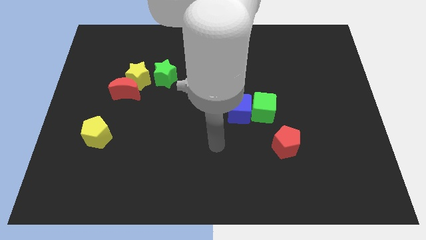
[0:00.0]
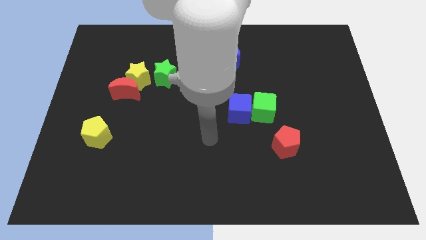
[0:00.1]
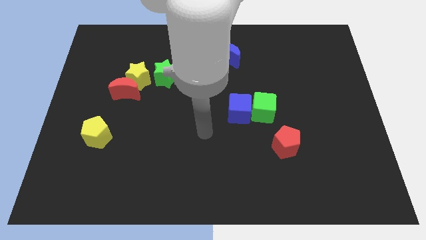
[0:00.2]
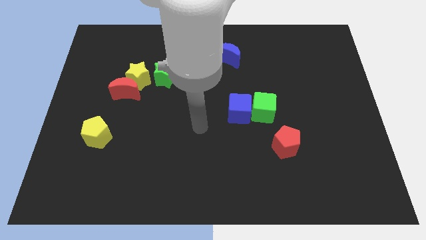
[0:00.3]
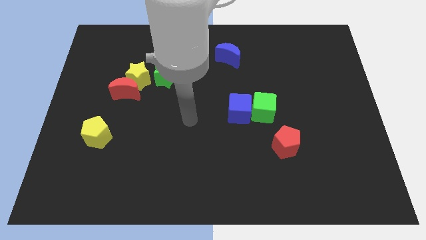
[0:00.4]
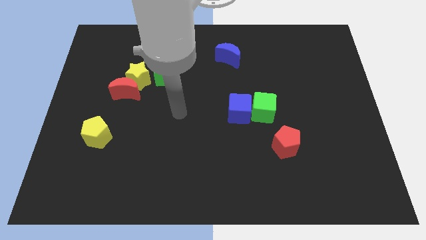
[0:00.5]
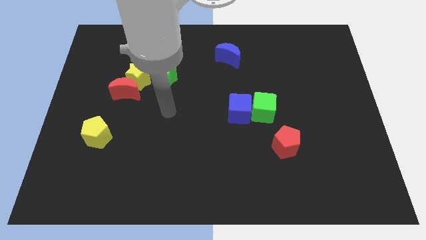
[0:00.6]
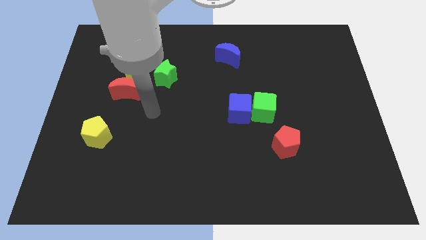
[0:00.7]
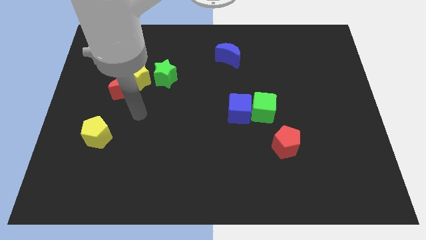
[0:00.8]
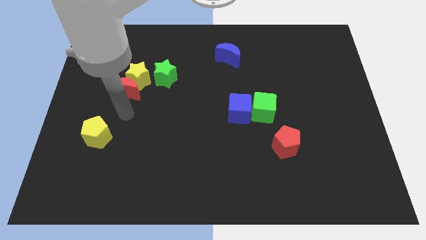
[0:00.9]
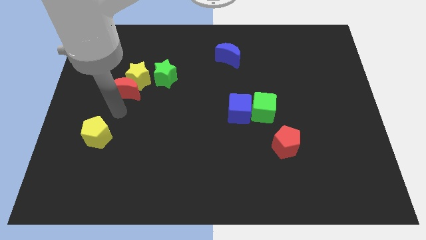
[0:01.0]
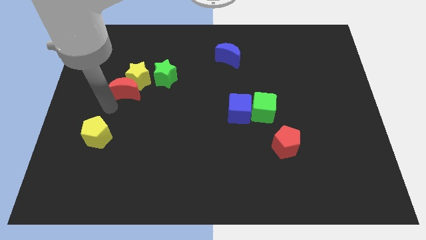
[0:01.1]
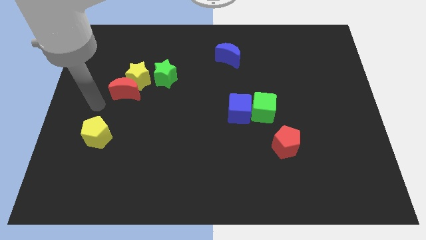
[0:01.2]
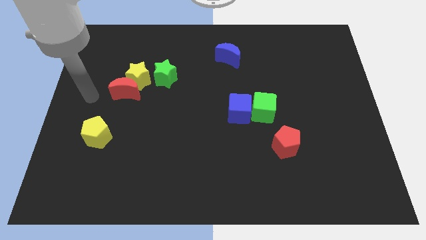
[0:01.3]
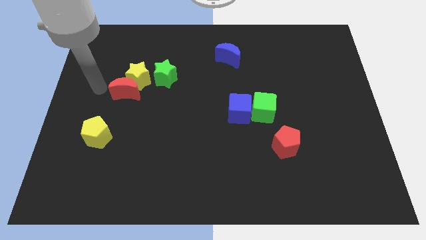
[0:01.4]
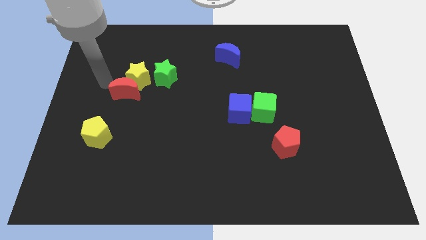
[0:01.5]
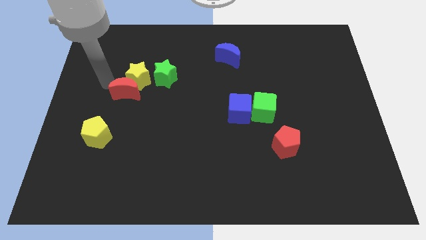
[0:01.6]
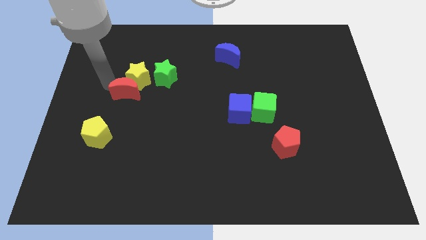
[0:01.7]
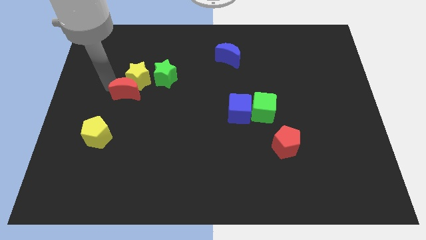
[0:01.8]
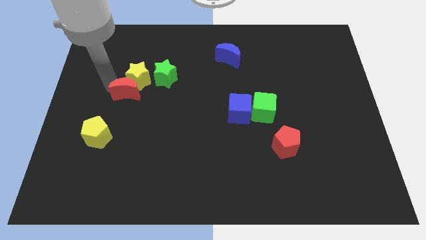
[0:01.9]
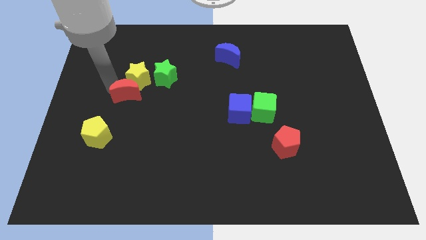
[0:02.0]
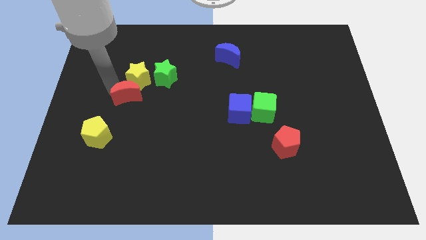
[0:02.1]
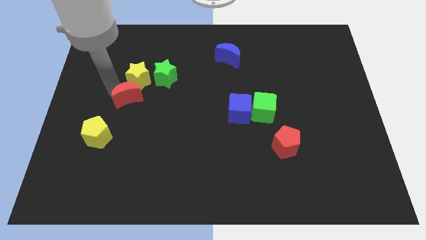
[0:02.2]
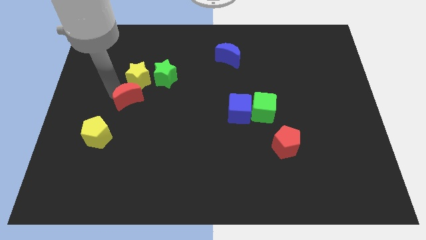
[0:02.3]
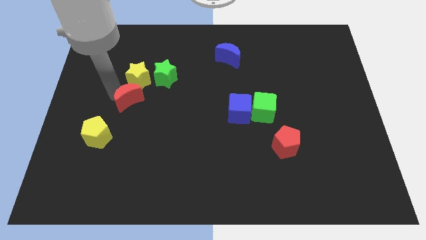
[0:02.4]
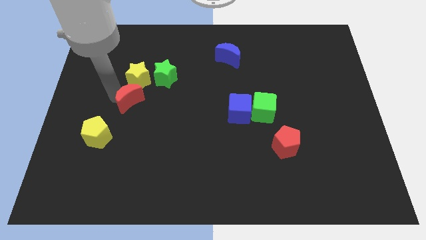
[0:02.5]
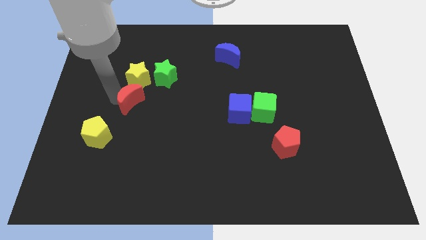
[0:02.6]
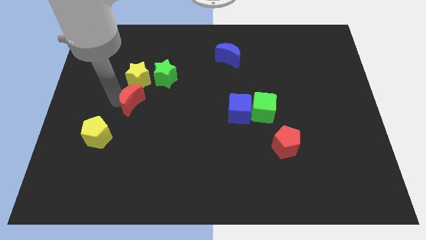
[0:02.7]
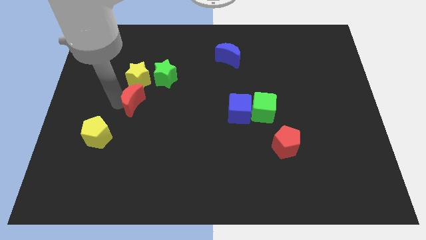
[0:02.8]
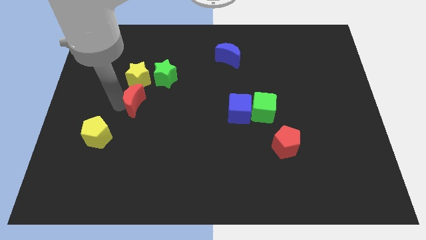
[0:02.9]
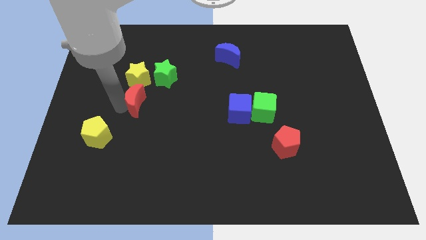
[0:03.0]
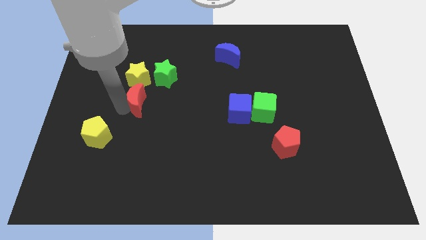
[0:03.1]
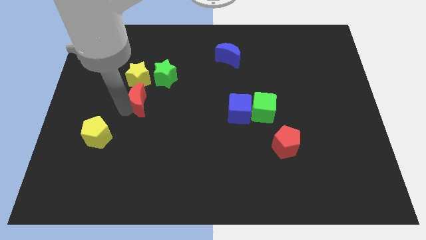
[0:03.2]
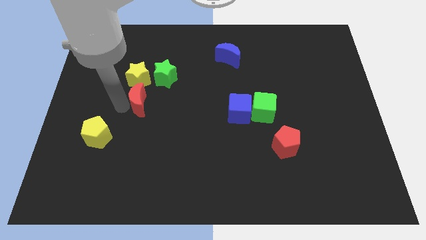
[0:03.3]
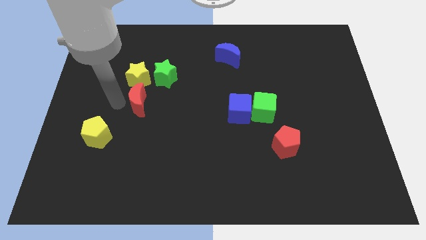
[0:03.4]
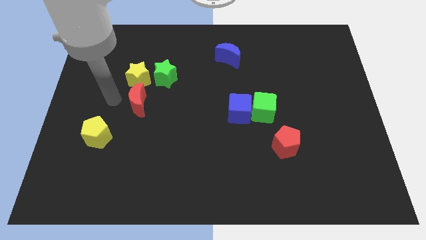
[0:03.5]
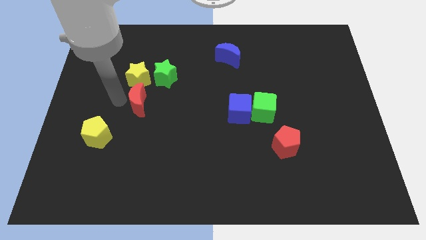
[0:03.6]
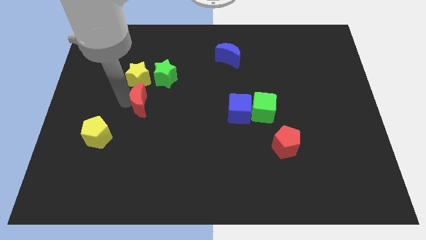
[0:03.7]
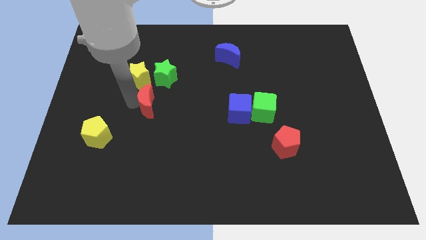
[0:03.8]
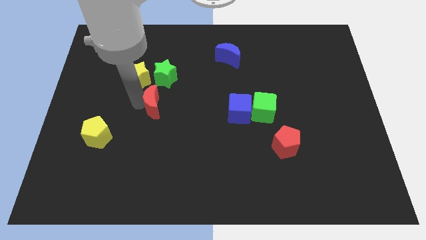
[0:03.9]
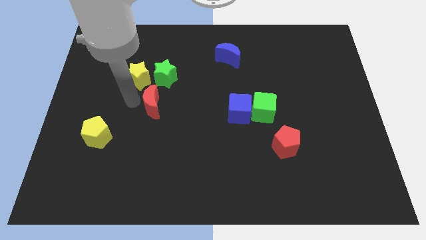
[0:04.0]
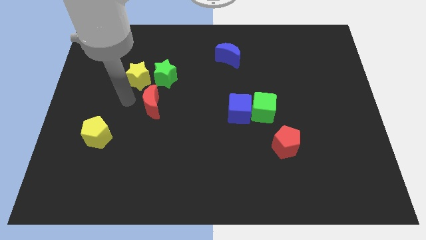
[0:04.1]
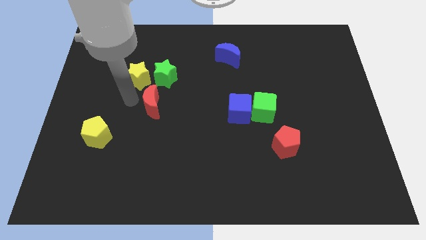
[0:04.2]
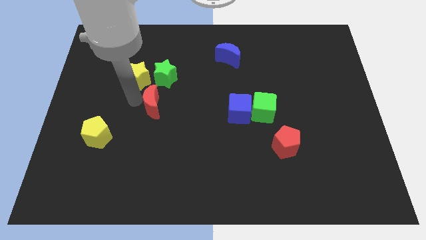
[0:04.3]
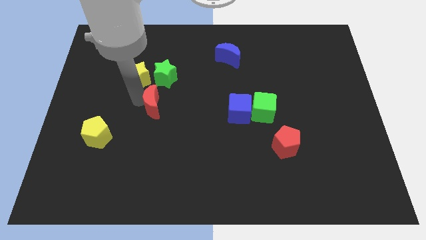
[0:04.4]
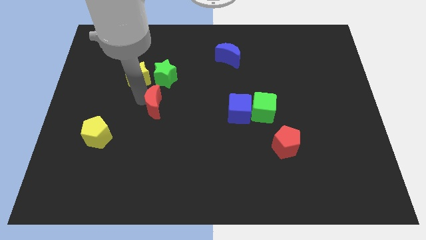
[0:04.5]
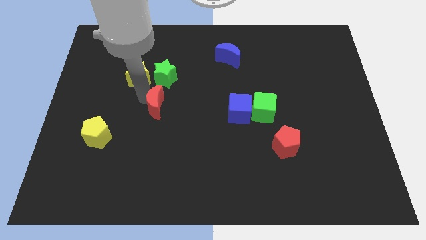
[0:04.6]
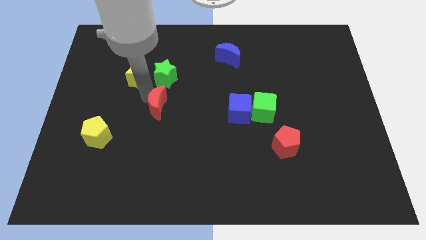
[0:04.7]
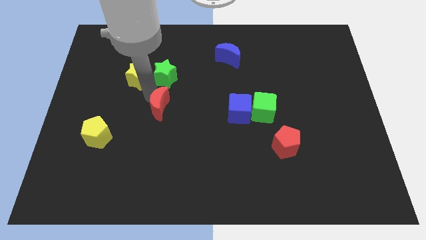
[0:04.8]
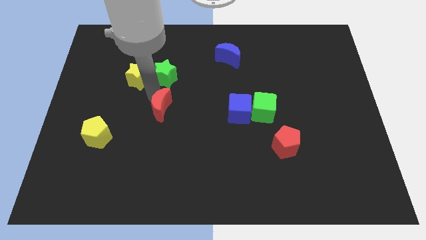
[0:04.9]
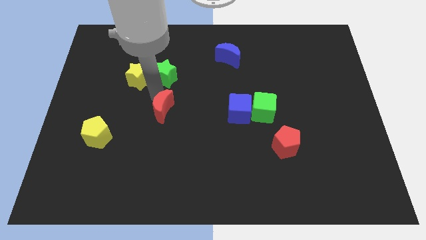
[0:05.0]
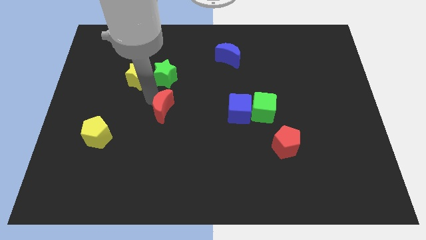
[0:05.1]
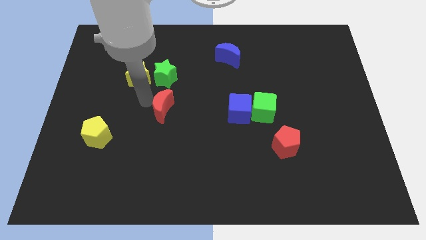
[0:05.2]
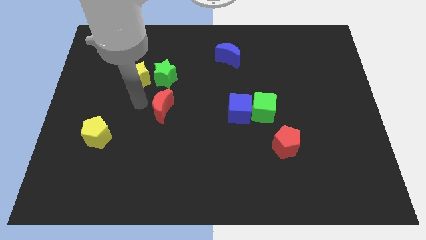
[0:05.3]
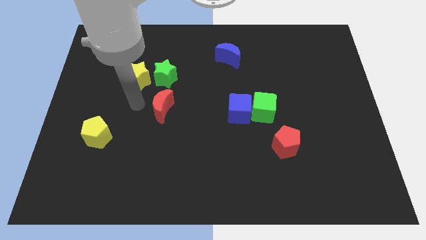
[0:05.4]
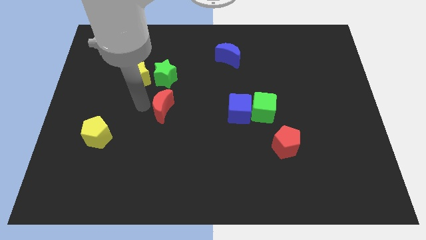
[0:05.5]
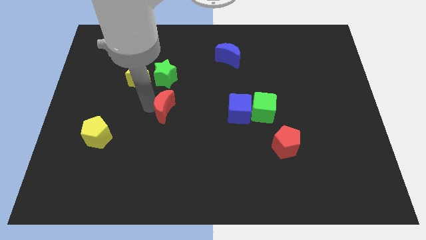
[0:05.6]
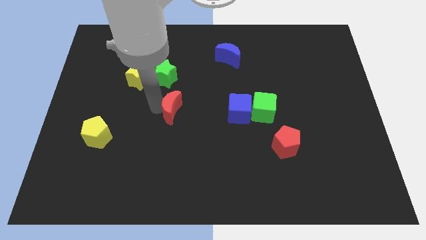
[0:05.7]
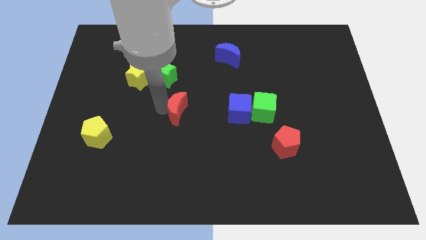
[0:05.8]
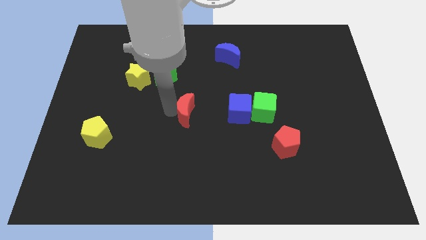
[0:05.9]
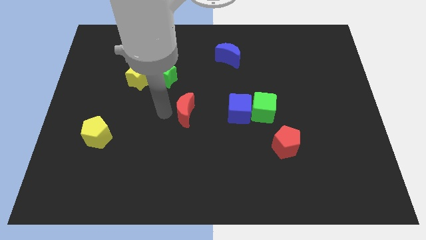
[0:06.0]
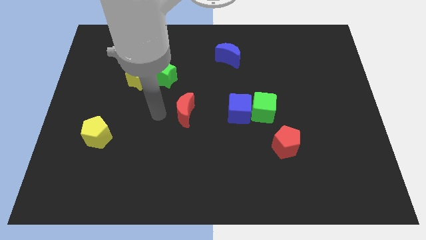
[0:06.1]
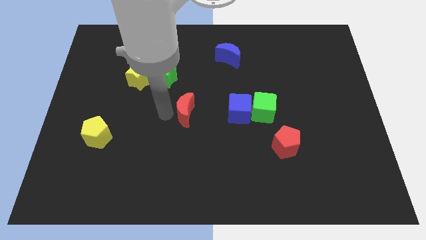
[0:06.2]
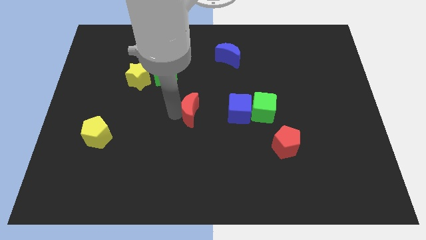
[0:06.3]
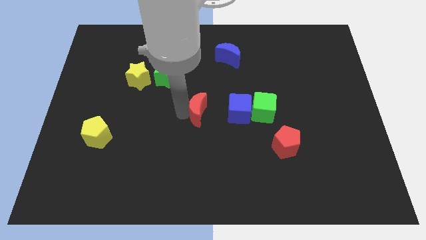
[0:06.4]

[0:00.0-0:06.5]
slide the red moon to the left side of the green cube
